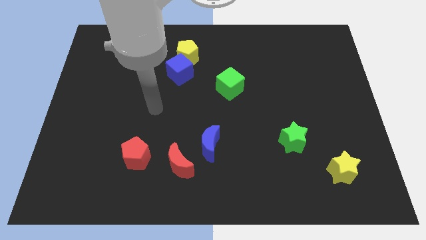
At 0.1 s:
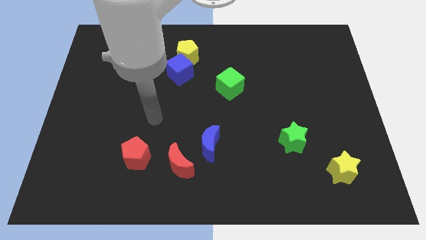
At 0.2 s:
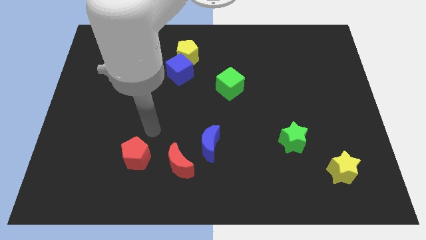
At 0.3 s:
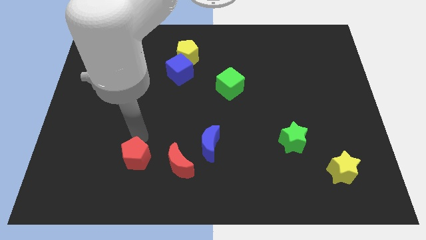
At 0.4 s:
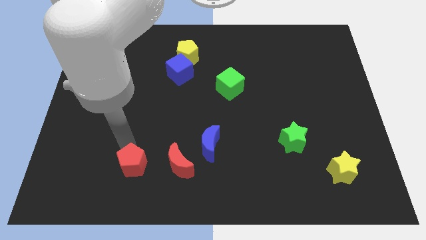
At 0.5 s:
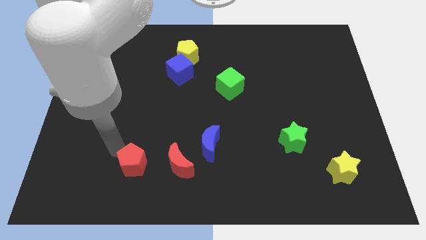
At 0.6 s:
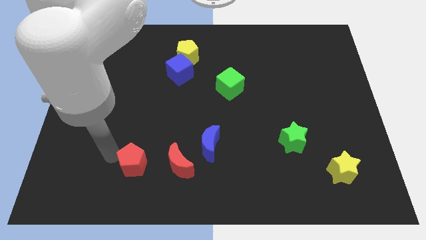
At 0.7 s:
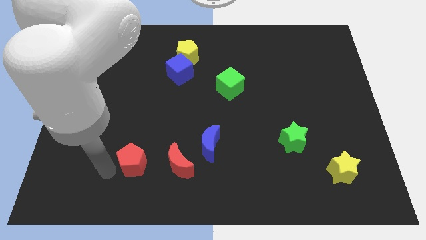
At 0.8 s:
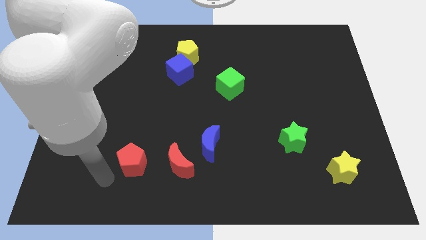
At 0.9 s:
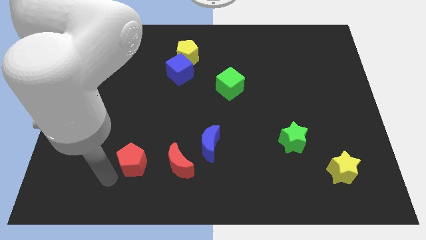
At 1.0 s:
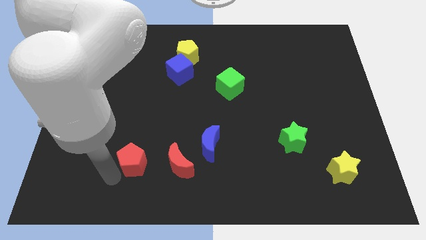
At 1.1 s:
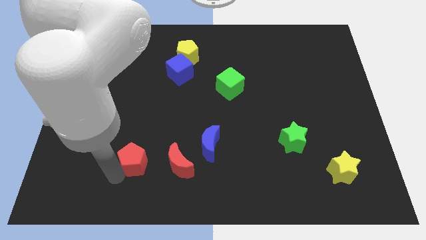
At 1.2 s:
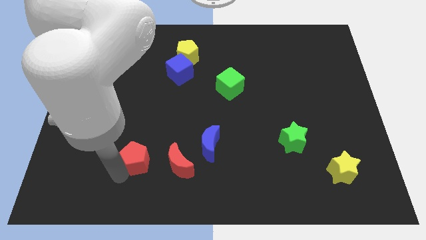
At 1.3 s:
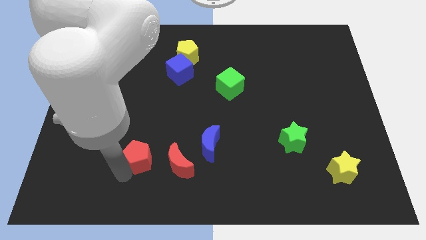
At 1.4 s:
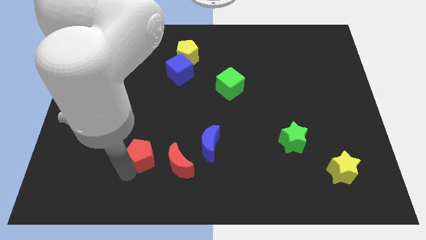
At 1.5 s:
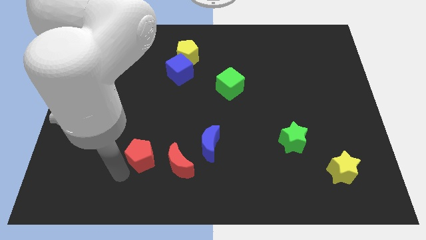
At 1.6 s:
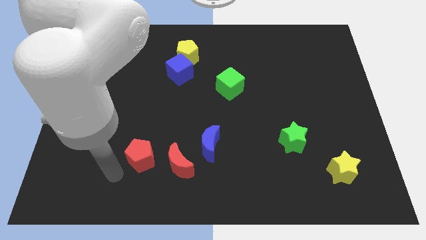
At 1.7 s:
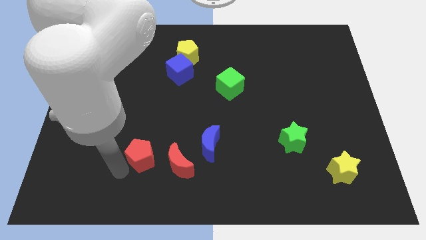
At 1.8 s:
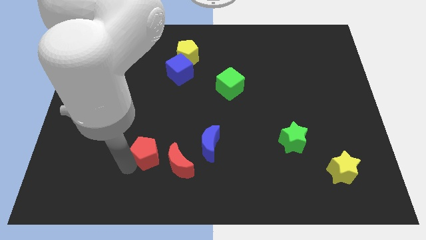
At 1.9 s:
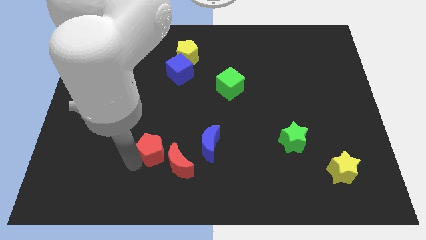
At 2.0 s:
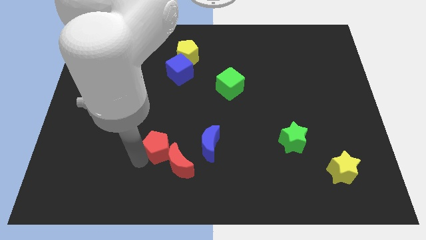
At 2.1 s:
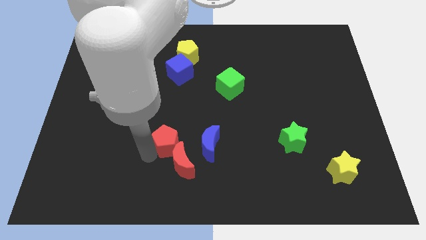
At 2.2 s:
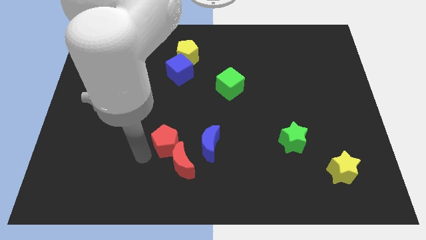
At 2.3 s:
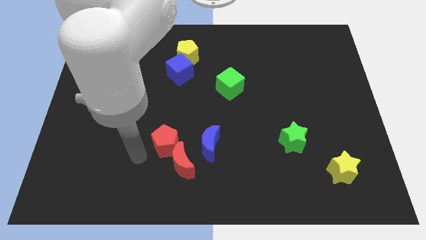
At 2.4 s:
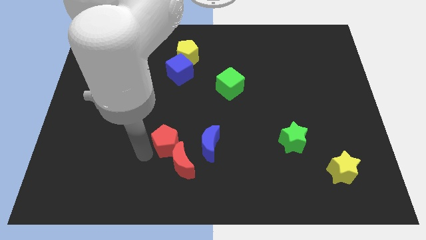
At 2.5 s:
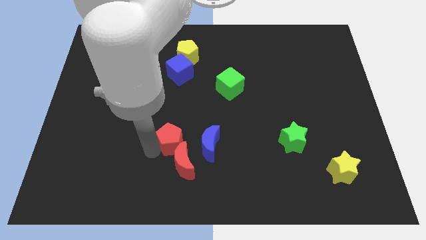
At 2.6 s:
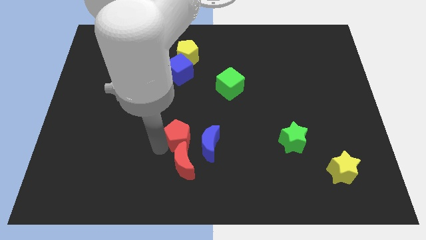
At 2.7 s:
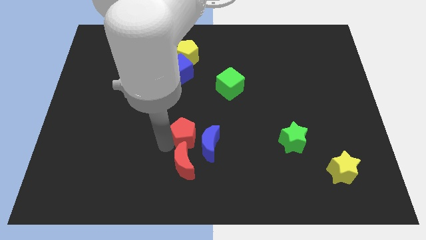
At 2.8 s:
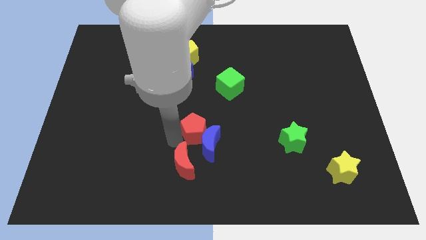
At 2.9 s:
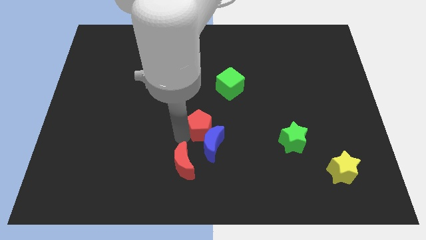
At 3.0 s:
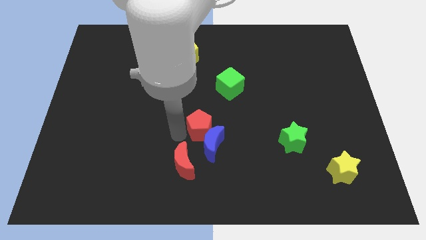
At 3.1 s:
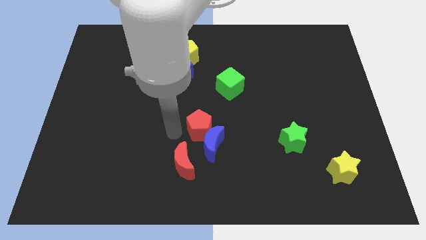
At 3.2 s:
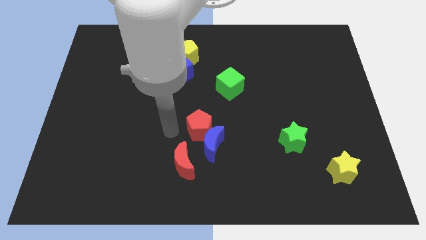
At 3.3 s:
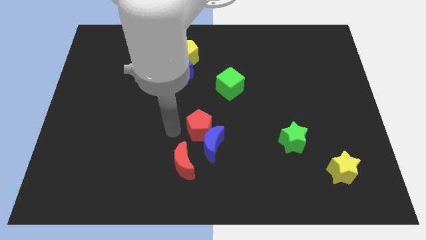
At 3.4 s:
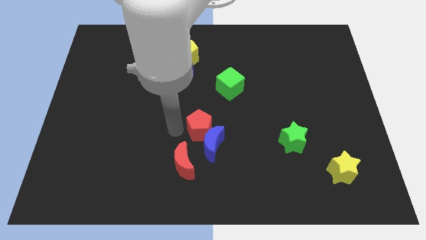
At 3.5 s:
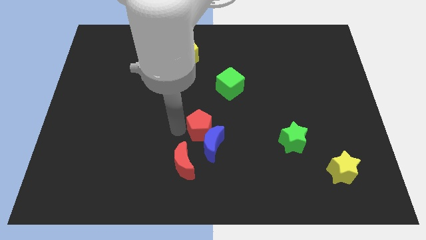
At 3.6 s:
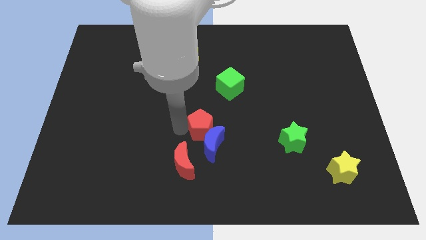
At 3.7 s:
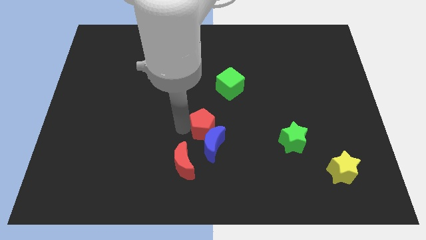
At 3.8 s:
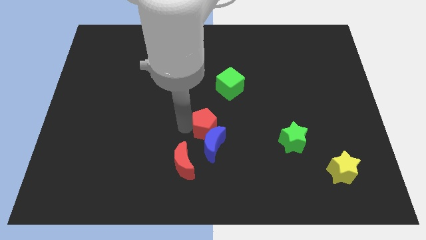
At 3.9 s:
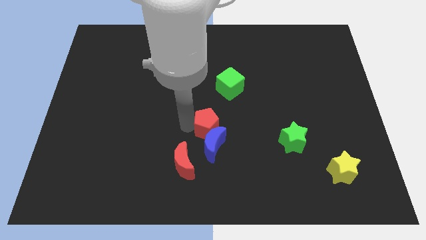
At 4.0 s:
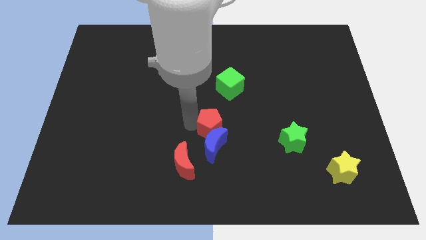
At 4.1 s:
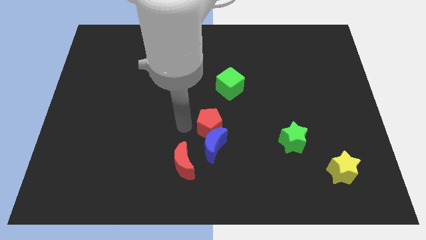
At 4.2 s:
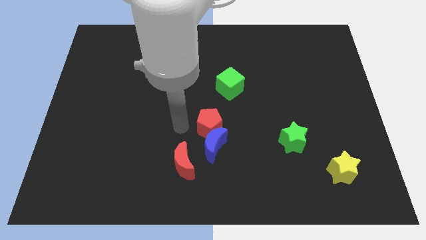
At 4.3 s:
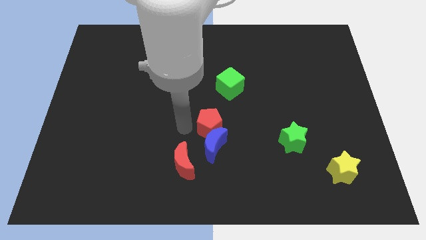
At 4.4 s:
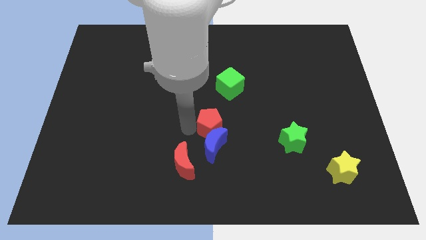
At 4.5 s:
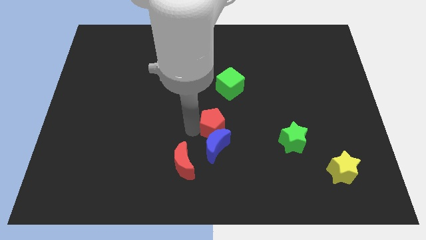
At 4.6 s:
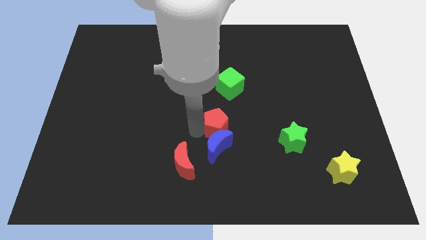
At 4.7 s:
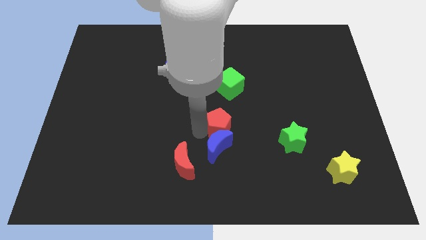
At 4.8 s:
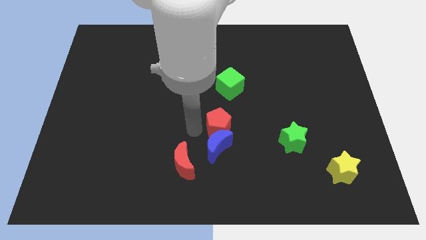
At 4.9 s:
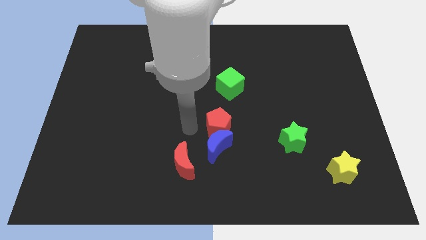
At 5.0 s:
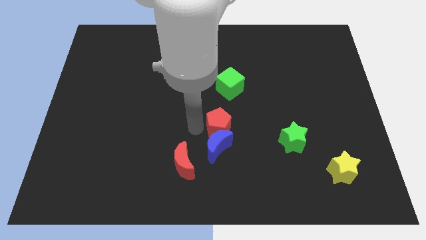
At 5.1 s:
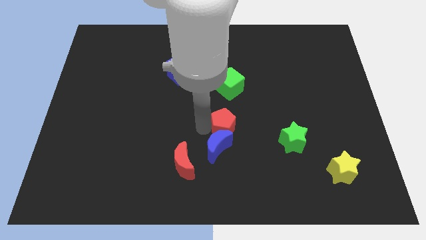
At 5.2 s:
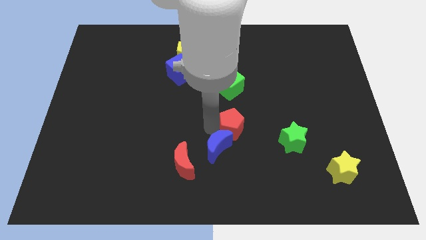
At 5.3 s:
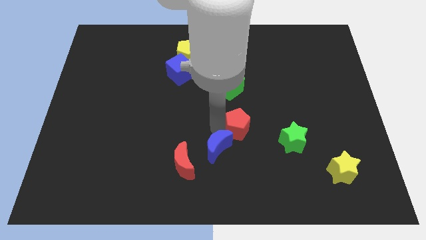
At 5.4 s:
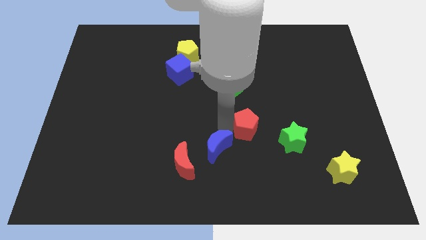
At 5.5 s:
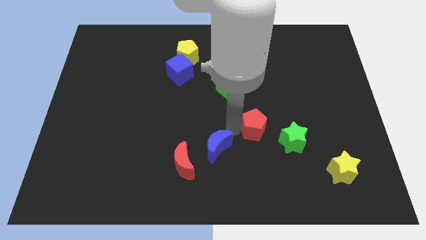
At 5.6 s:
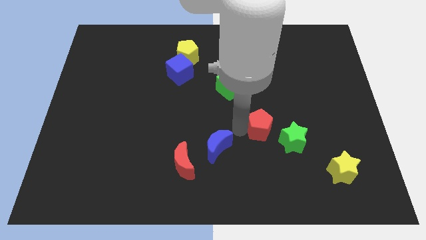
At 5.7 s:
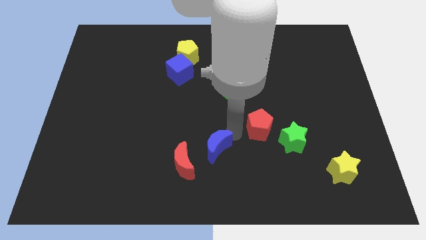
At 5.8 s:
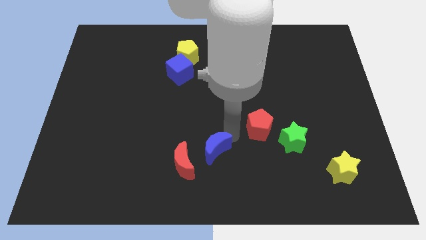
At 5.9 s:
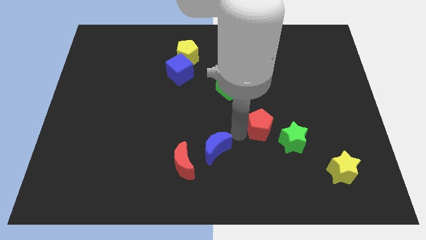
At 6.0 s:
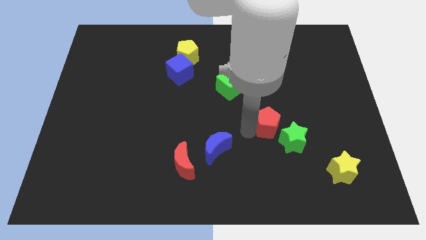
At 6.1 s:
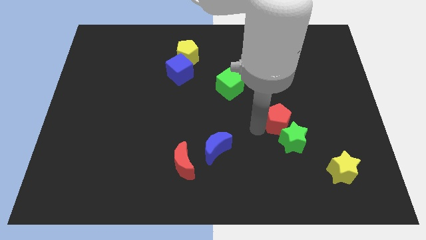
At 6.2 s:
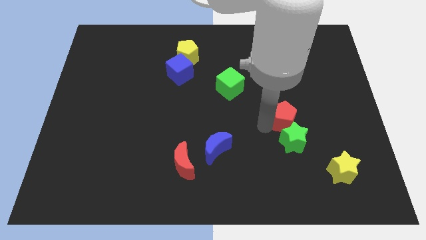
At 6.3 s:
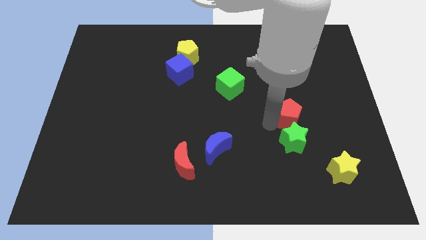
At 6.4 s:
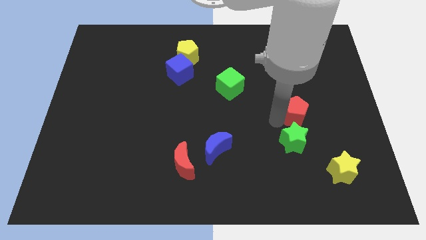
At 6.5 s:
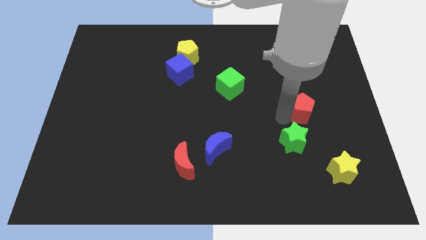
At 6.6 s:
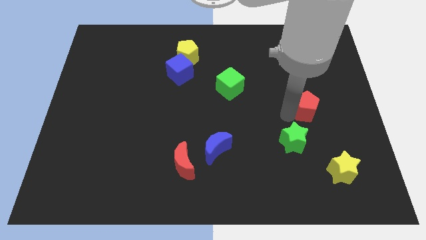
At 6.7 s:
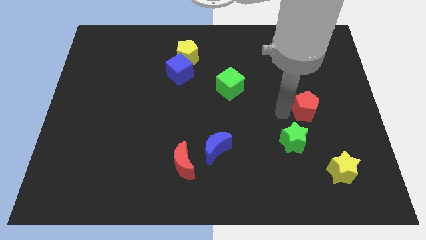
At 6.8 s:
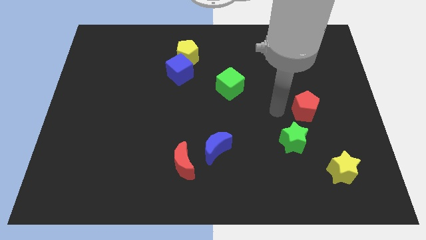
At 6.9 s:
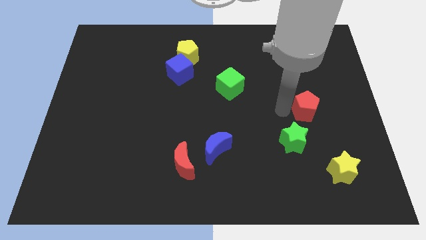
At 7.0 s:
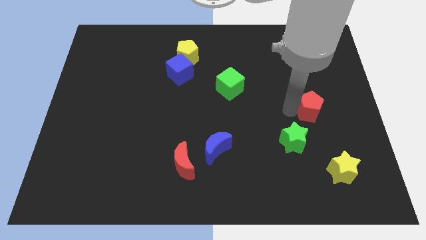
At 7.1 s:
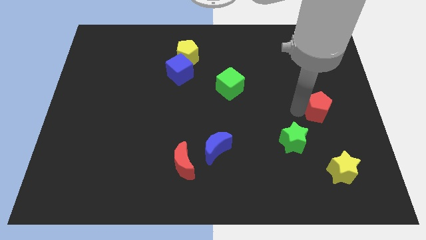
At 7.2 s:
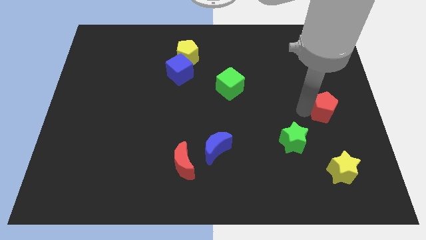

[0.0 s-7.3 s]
put the red pentagon to the right side of the board

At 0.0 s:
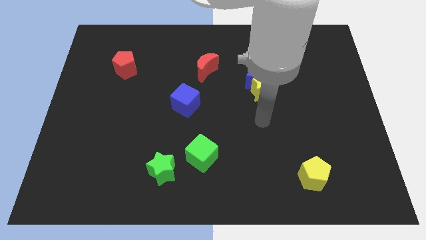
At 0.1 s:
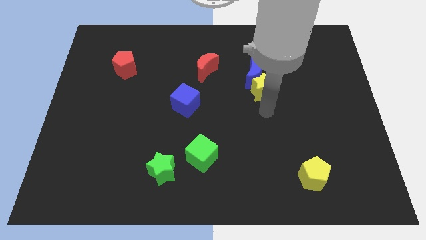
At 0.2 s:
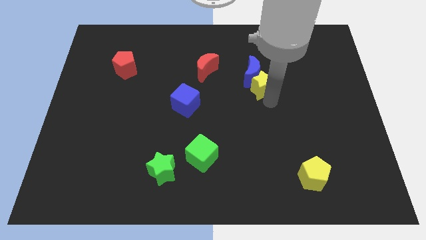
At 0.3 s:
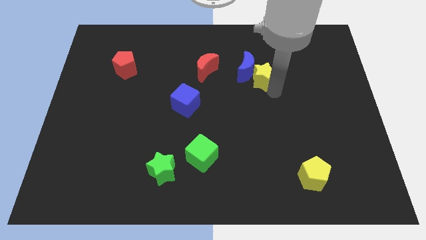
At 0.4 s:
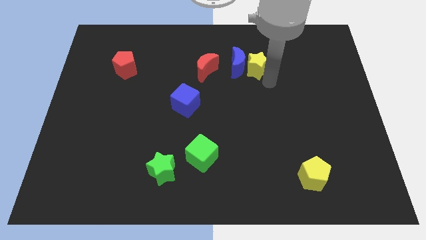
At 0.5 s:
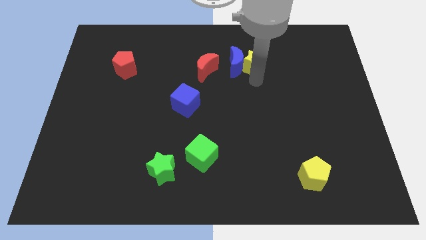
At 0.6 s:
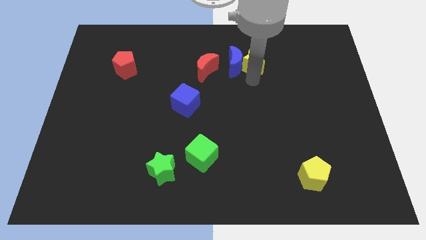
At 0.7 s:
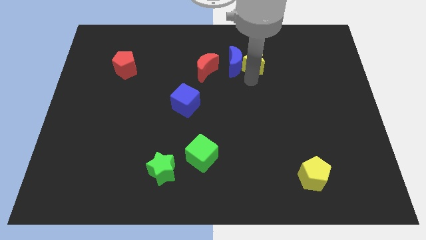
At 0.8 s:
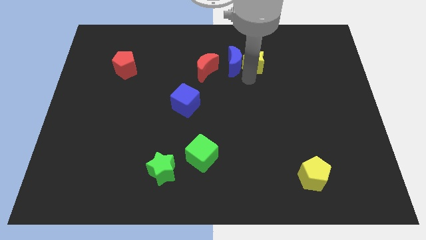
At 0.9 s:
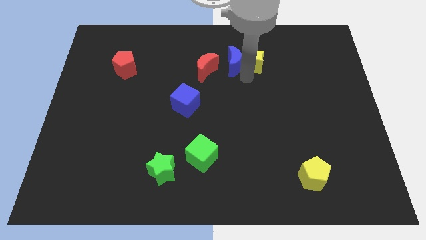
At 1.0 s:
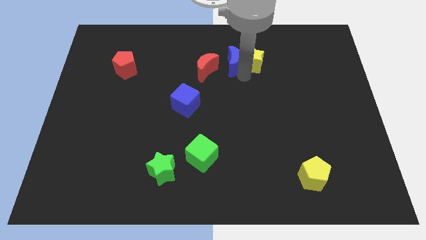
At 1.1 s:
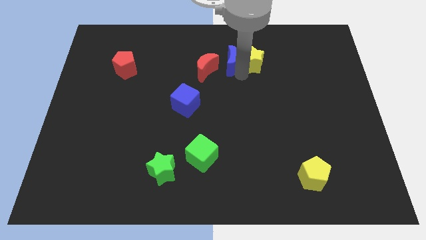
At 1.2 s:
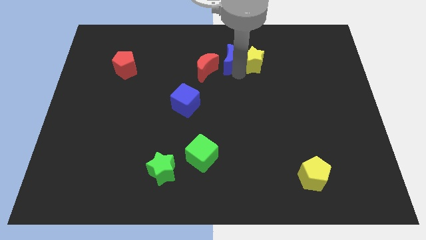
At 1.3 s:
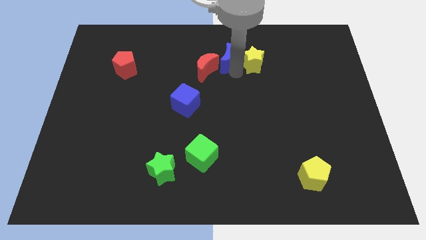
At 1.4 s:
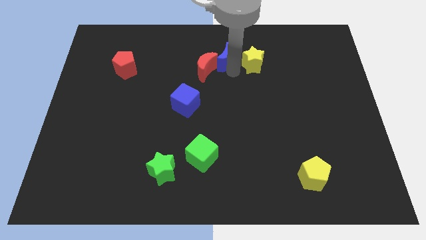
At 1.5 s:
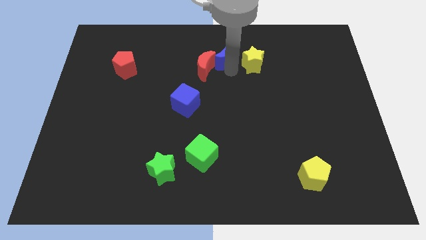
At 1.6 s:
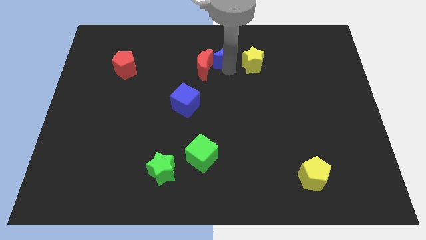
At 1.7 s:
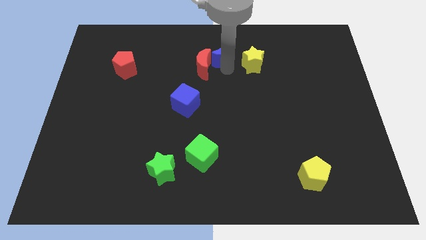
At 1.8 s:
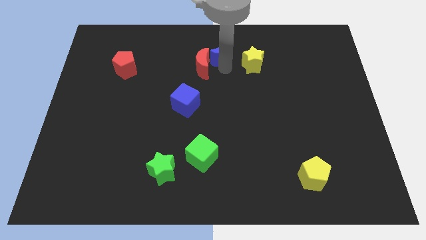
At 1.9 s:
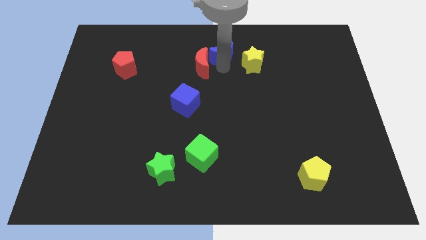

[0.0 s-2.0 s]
move the blue moon to the top
